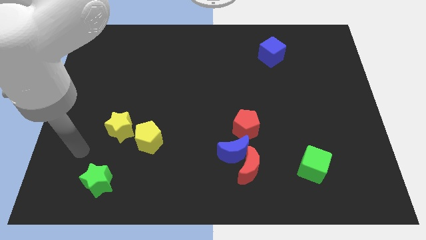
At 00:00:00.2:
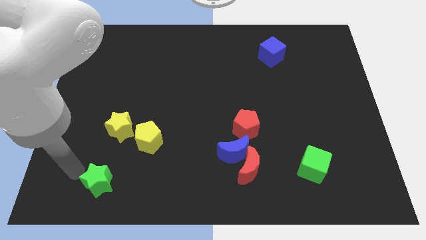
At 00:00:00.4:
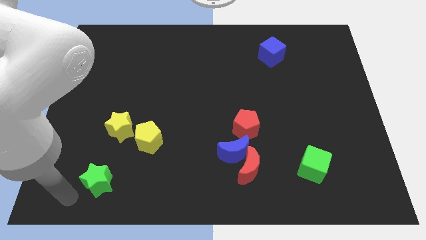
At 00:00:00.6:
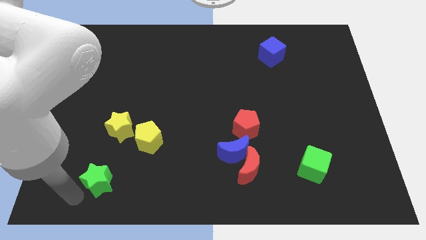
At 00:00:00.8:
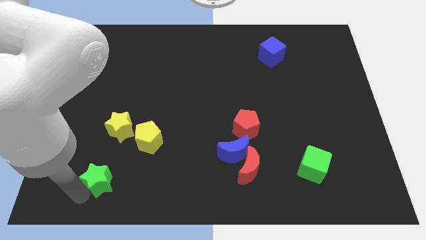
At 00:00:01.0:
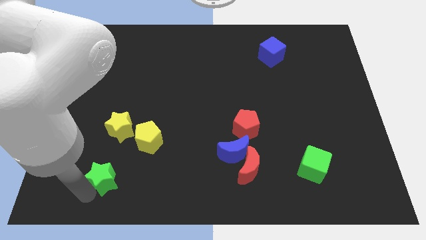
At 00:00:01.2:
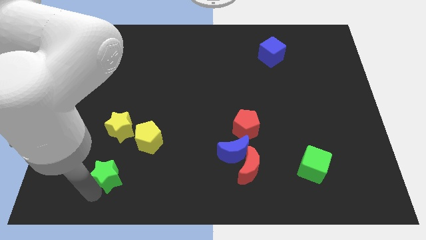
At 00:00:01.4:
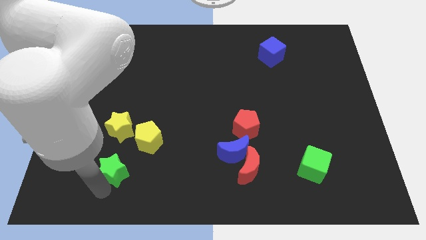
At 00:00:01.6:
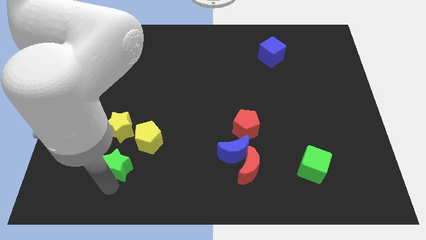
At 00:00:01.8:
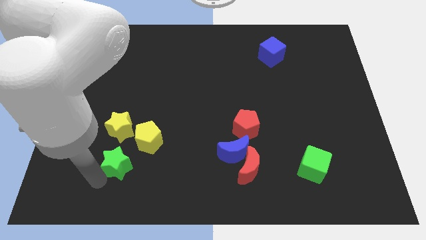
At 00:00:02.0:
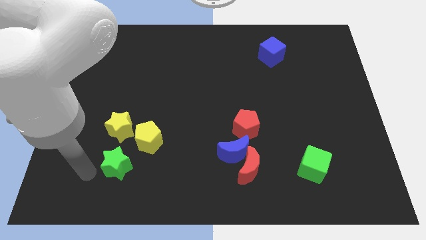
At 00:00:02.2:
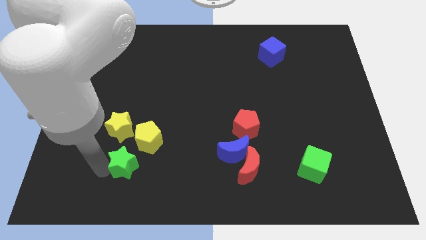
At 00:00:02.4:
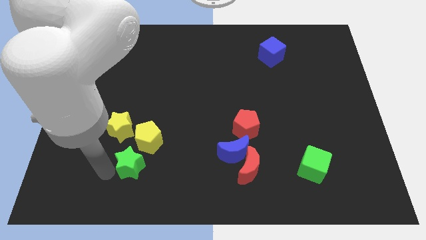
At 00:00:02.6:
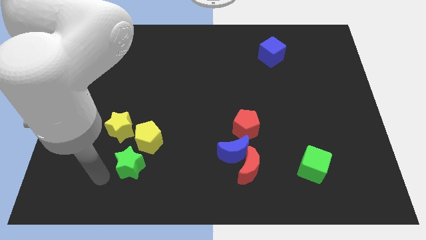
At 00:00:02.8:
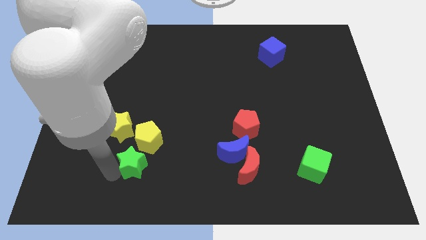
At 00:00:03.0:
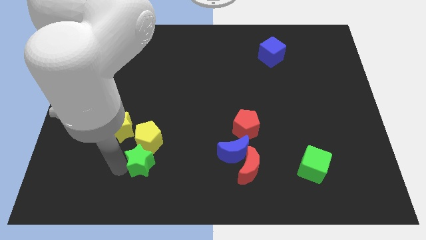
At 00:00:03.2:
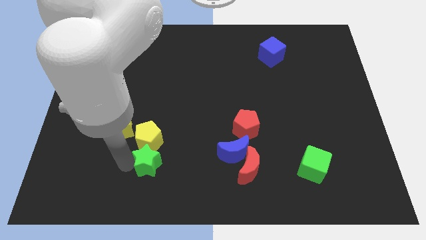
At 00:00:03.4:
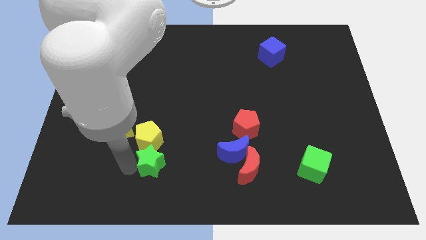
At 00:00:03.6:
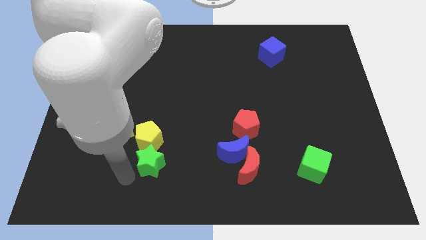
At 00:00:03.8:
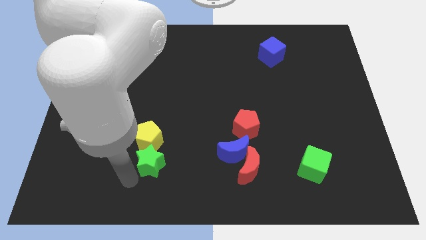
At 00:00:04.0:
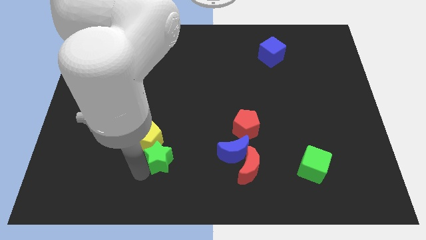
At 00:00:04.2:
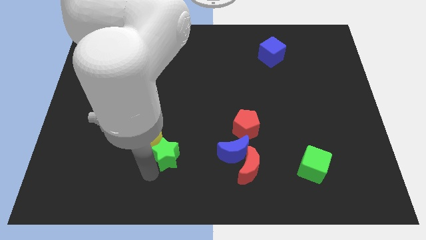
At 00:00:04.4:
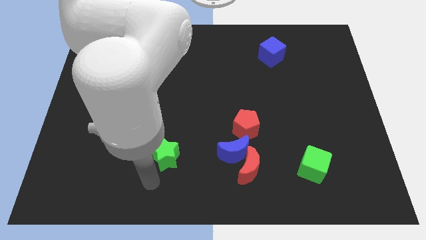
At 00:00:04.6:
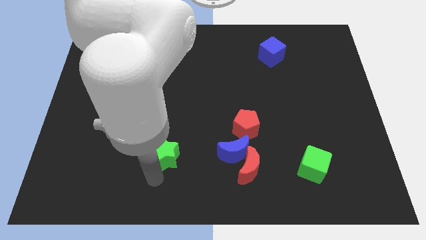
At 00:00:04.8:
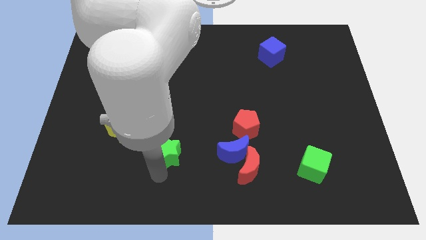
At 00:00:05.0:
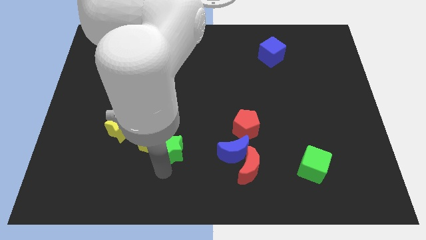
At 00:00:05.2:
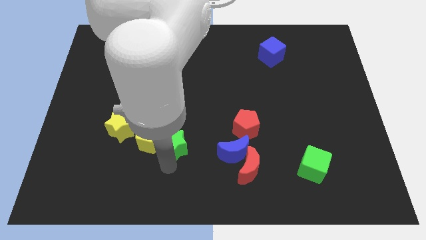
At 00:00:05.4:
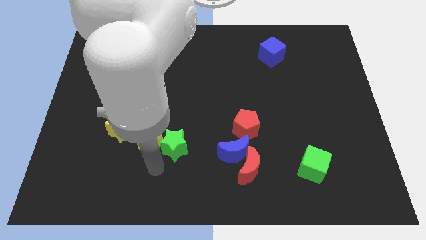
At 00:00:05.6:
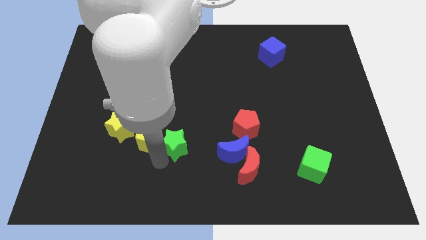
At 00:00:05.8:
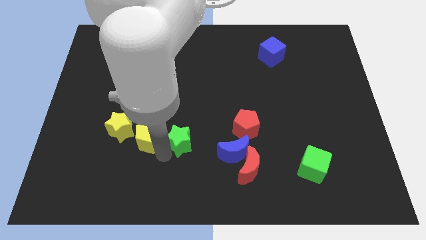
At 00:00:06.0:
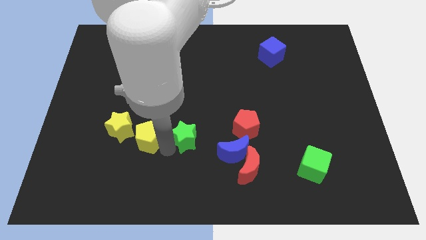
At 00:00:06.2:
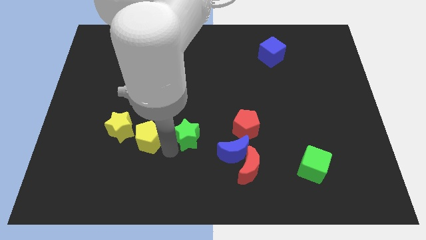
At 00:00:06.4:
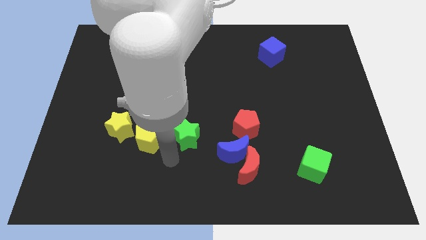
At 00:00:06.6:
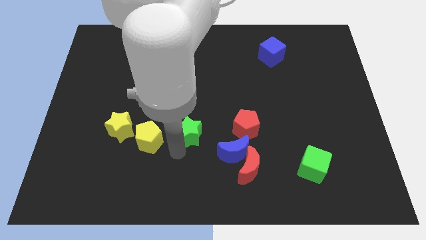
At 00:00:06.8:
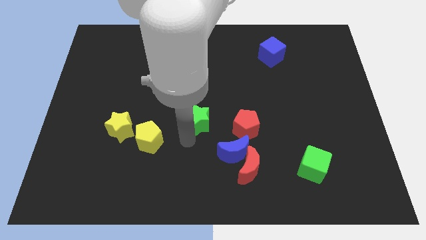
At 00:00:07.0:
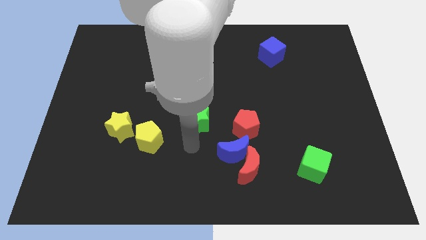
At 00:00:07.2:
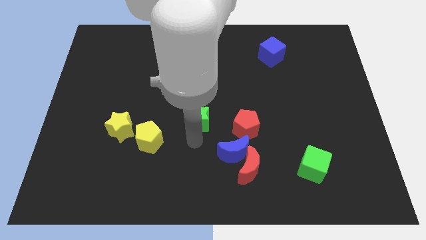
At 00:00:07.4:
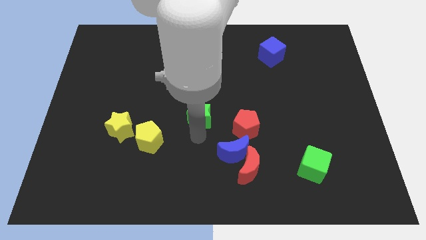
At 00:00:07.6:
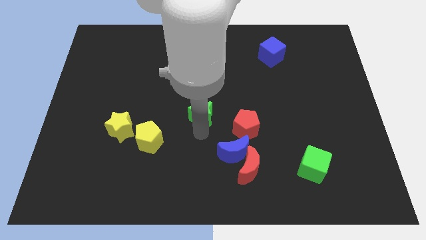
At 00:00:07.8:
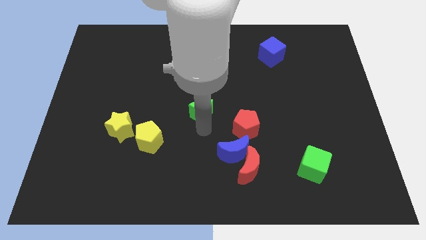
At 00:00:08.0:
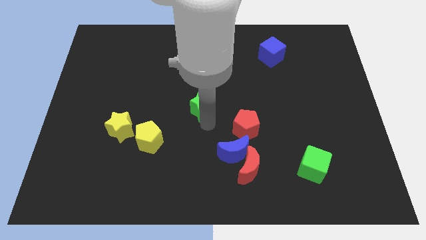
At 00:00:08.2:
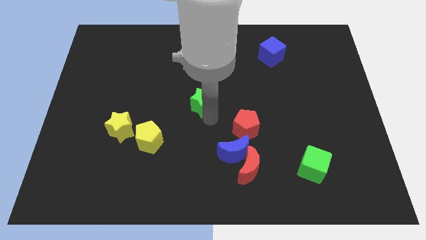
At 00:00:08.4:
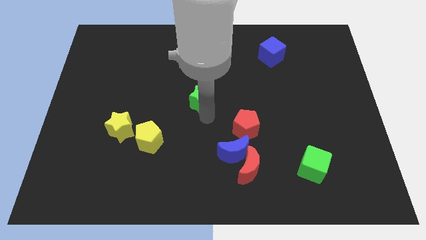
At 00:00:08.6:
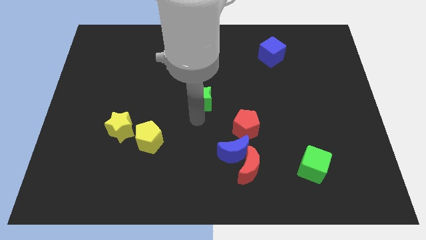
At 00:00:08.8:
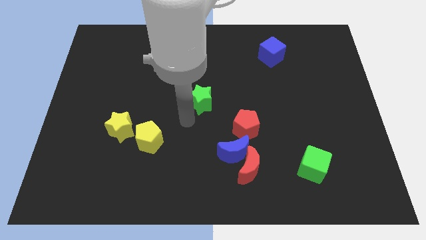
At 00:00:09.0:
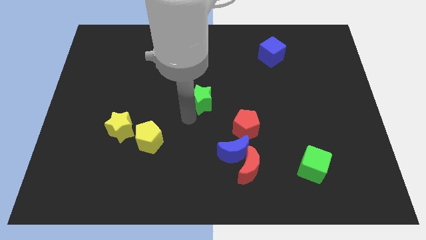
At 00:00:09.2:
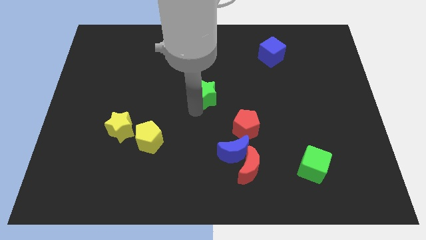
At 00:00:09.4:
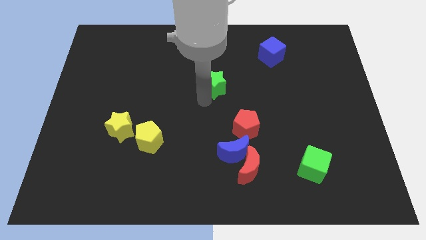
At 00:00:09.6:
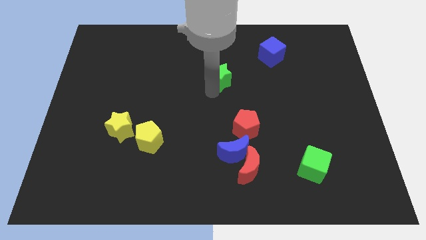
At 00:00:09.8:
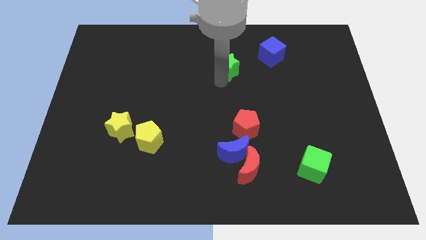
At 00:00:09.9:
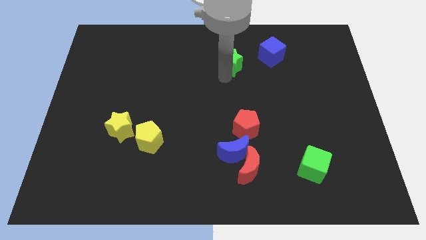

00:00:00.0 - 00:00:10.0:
move the green star to the left side of the blue cube

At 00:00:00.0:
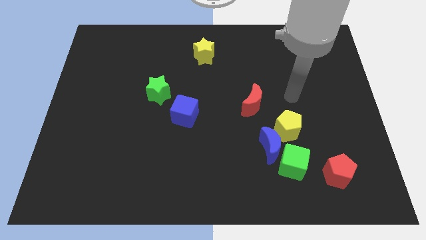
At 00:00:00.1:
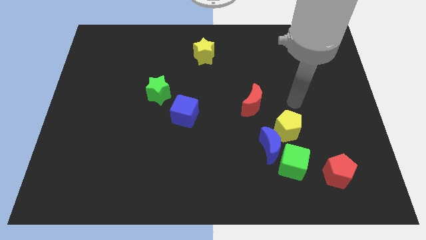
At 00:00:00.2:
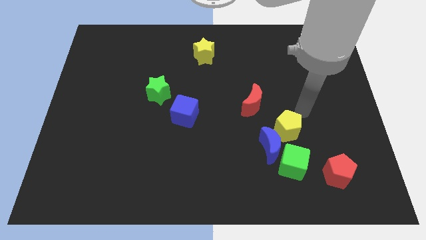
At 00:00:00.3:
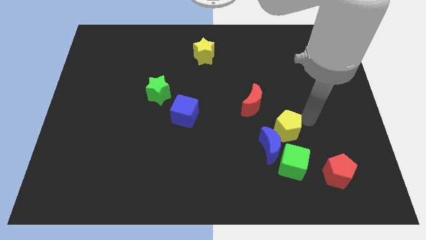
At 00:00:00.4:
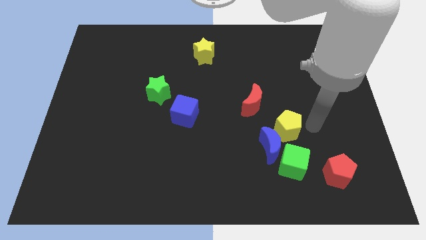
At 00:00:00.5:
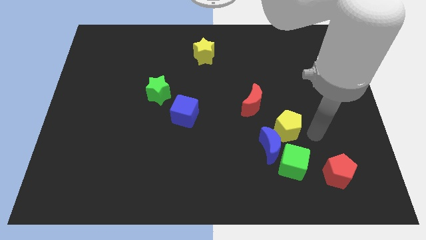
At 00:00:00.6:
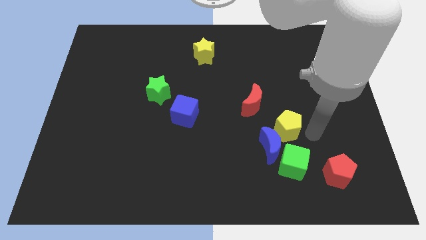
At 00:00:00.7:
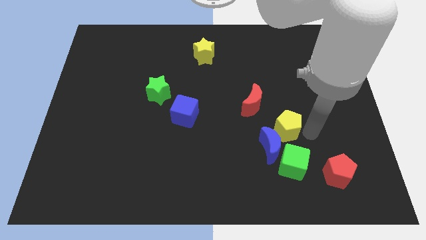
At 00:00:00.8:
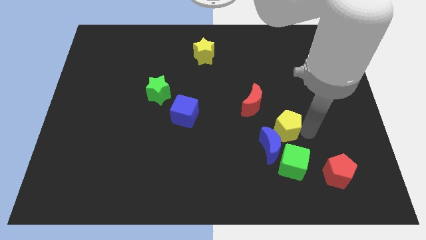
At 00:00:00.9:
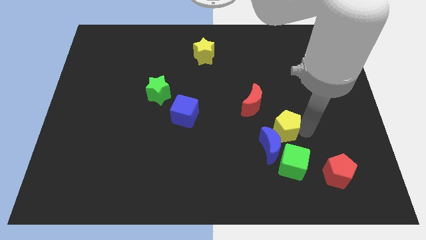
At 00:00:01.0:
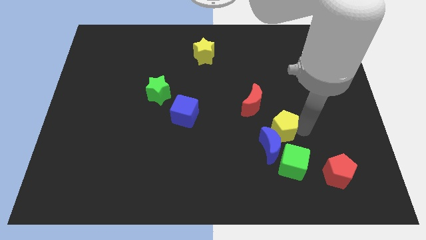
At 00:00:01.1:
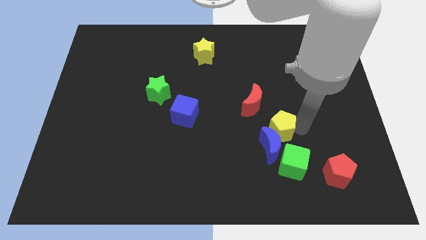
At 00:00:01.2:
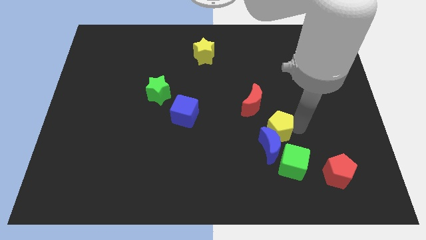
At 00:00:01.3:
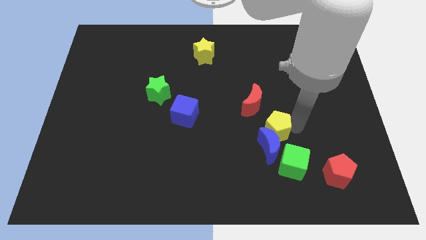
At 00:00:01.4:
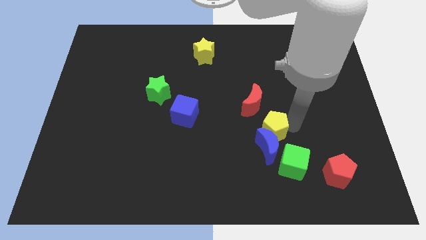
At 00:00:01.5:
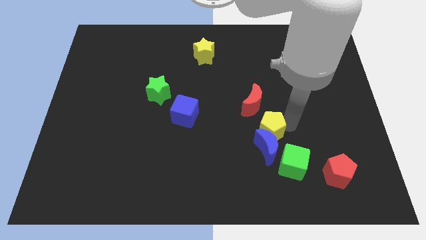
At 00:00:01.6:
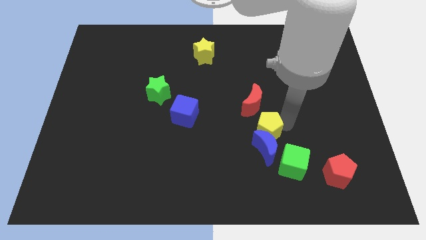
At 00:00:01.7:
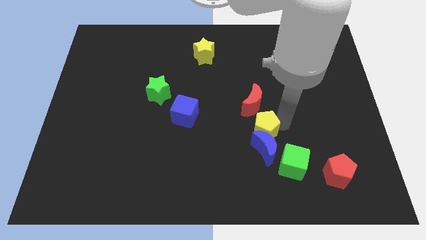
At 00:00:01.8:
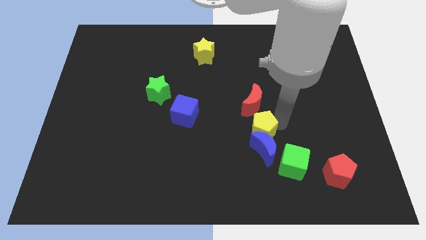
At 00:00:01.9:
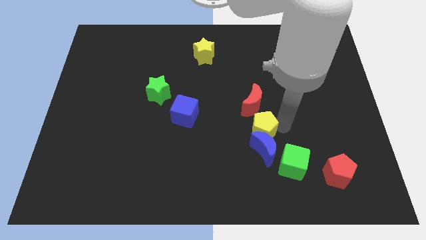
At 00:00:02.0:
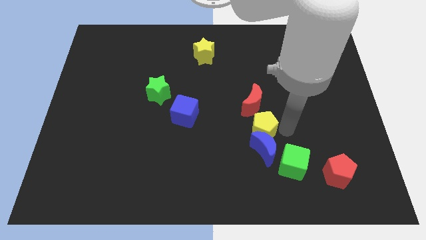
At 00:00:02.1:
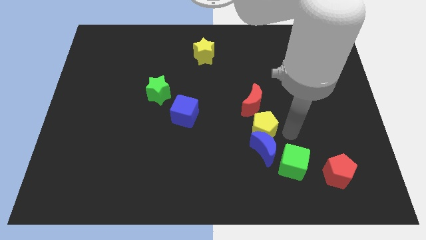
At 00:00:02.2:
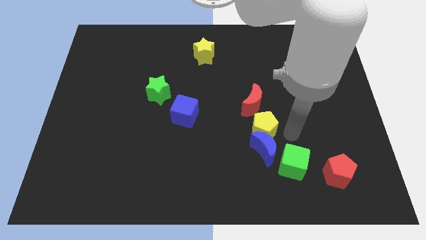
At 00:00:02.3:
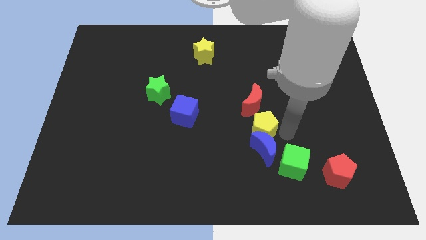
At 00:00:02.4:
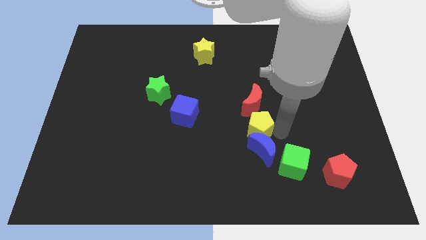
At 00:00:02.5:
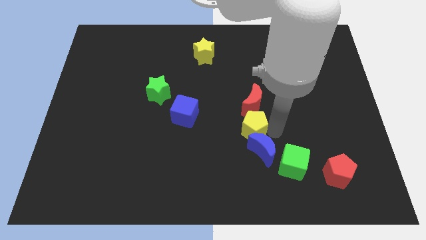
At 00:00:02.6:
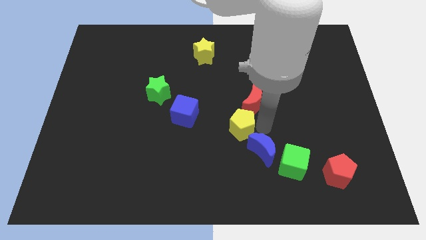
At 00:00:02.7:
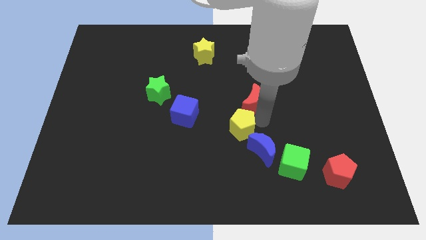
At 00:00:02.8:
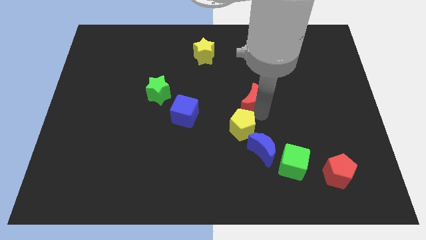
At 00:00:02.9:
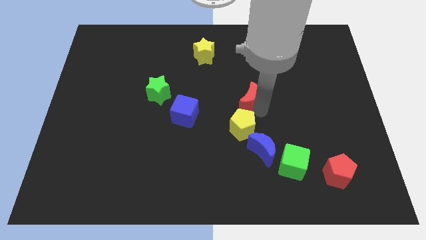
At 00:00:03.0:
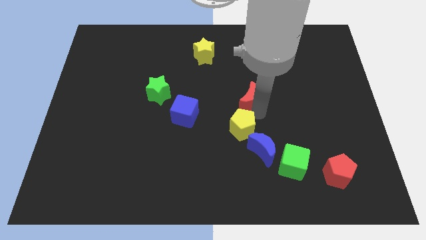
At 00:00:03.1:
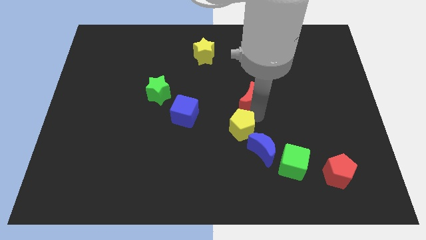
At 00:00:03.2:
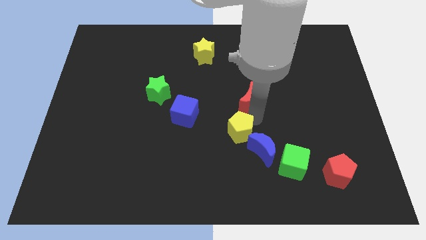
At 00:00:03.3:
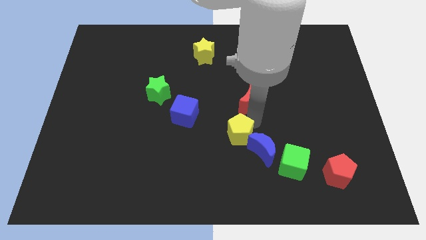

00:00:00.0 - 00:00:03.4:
put the yellow pentagon left of the blue moon
